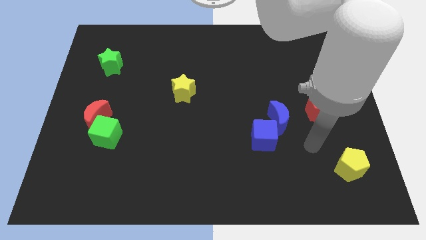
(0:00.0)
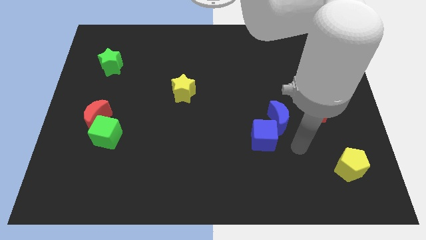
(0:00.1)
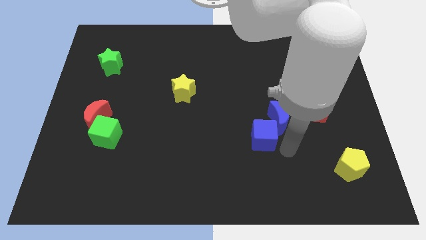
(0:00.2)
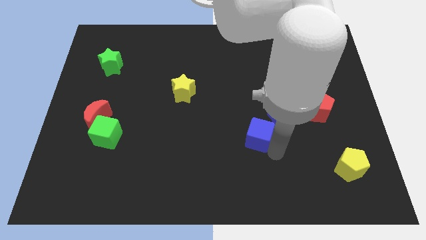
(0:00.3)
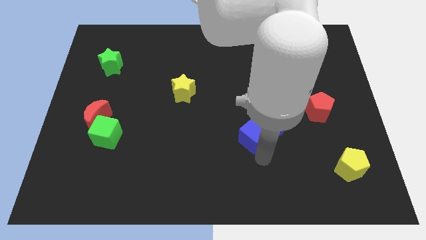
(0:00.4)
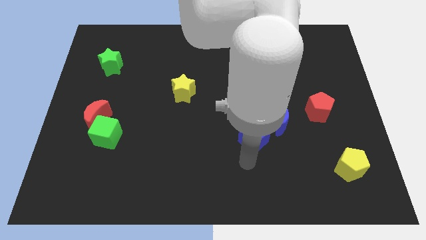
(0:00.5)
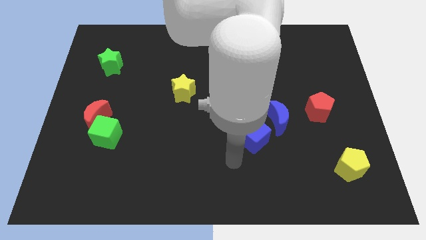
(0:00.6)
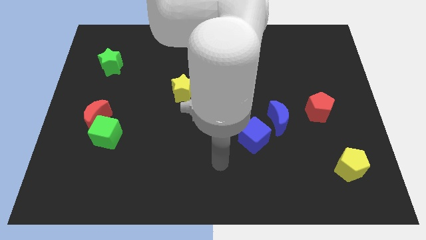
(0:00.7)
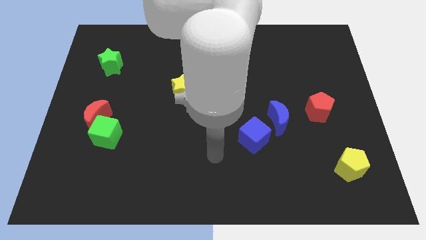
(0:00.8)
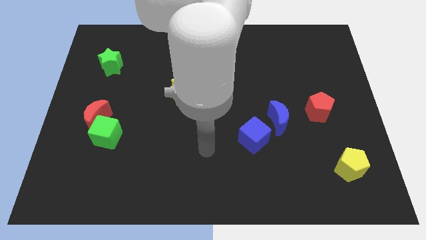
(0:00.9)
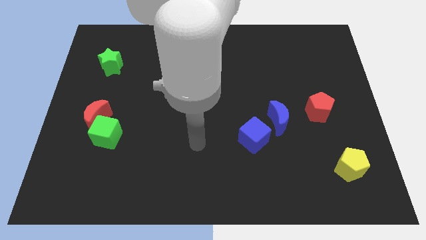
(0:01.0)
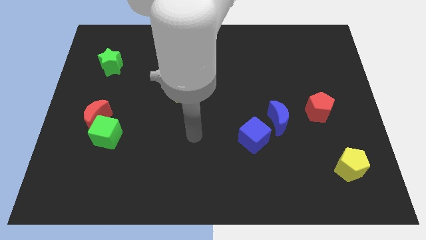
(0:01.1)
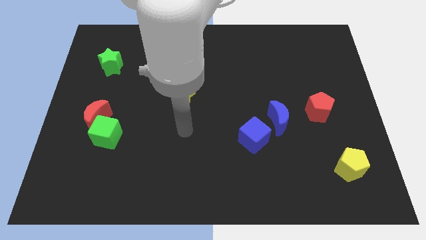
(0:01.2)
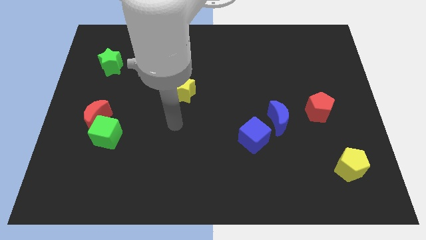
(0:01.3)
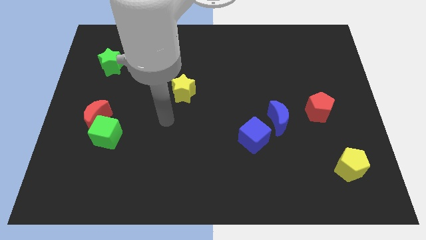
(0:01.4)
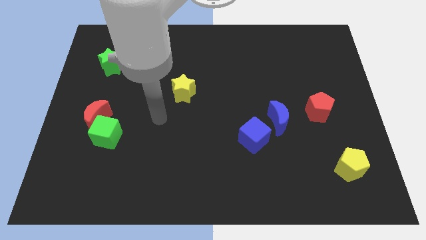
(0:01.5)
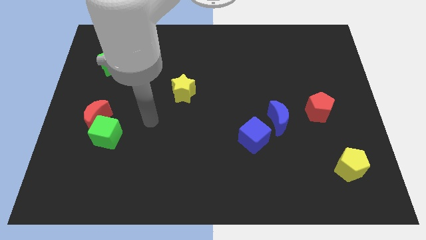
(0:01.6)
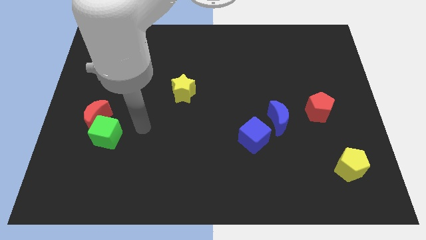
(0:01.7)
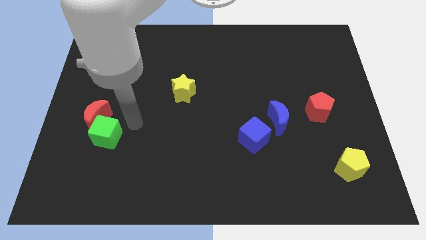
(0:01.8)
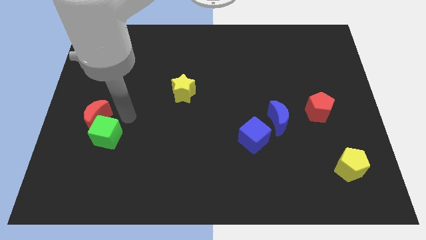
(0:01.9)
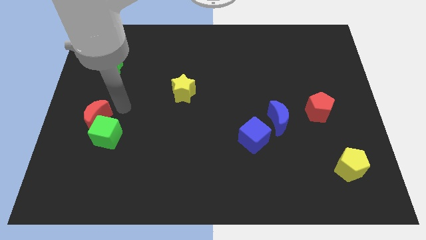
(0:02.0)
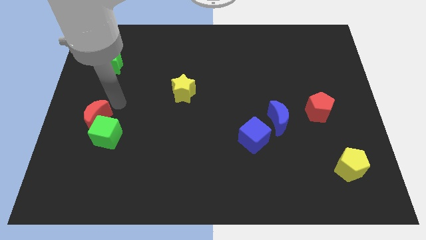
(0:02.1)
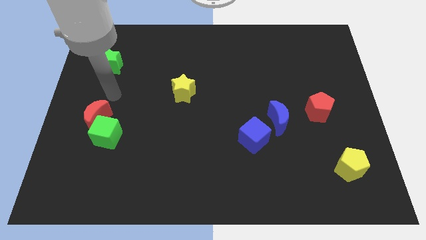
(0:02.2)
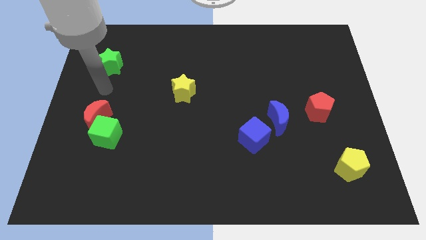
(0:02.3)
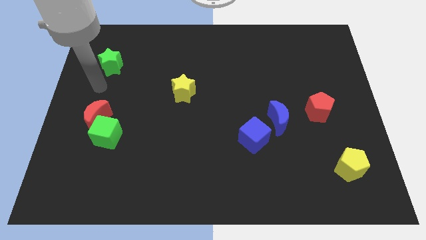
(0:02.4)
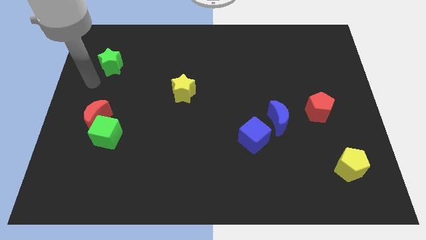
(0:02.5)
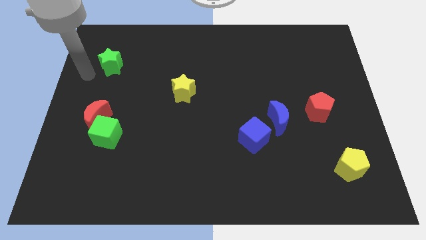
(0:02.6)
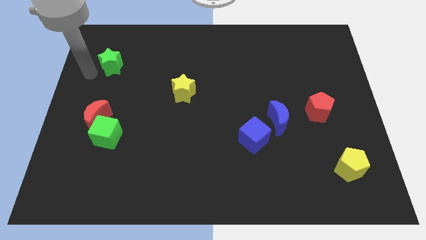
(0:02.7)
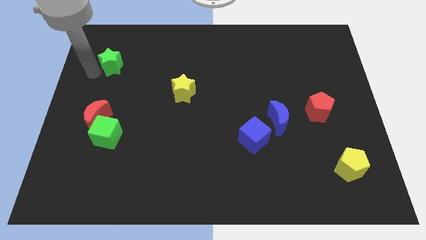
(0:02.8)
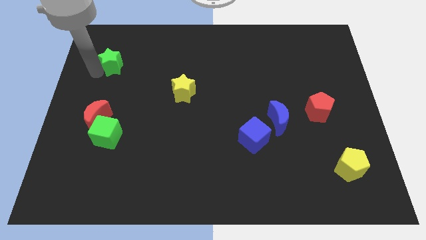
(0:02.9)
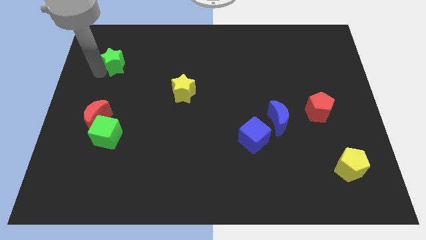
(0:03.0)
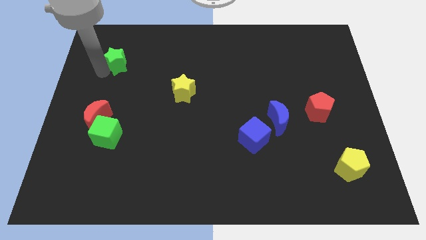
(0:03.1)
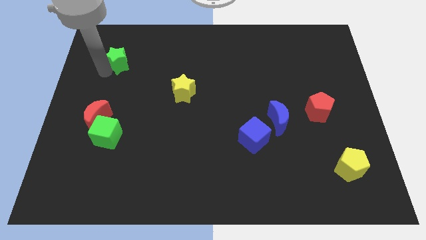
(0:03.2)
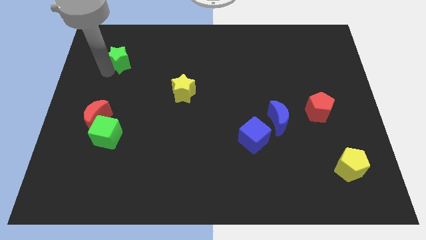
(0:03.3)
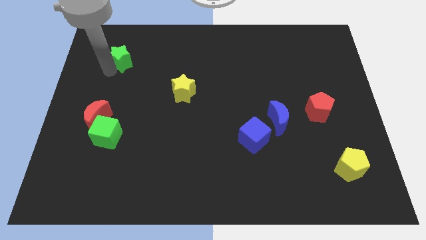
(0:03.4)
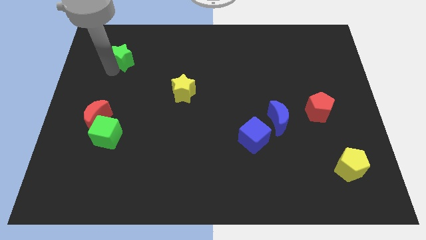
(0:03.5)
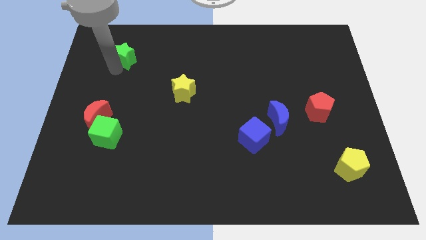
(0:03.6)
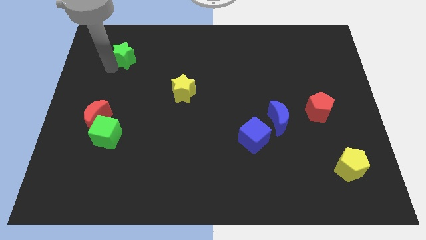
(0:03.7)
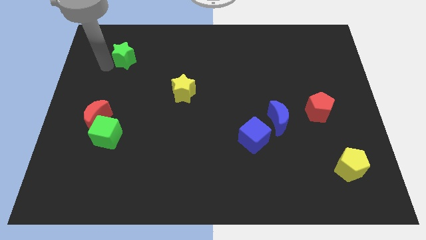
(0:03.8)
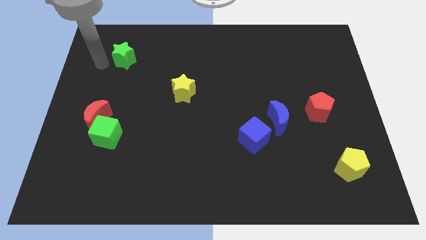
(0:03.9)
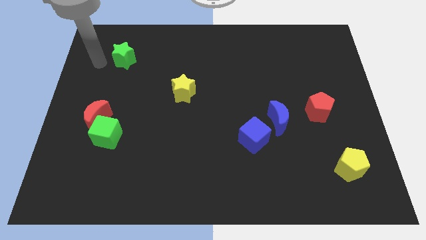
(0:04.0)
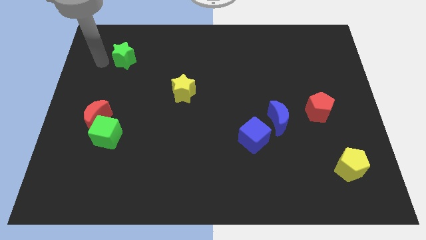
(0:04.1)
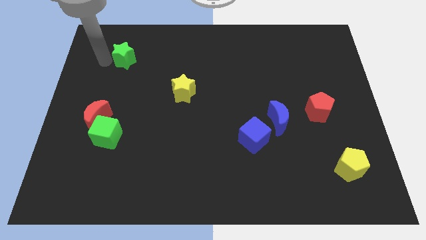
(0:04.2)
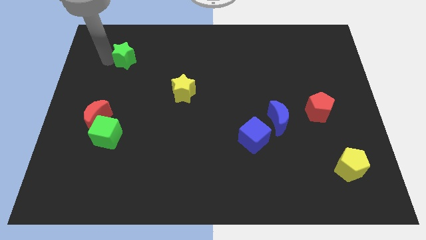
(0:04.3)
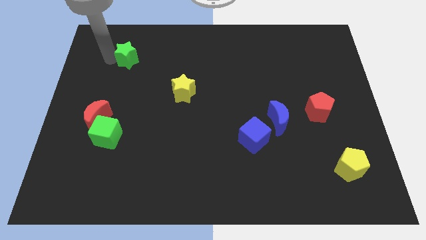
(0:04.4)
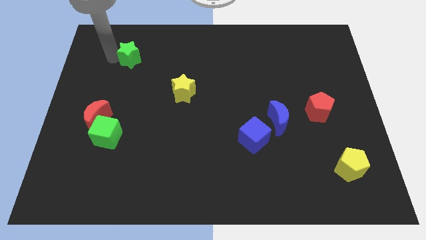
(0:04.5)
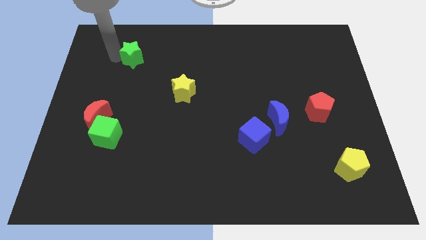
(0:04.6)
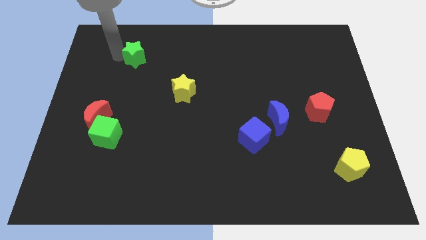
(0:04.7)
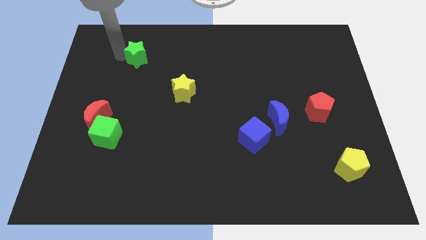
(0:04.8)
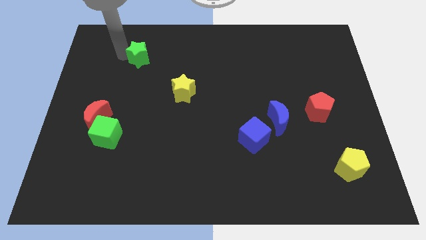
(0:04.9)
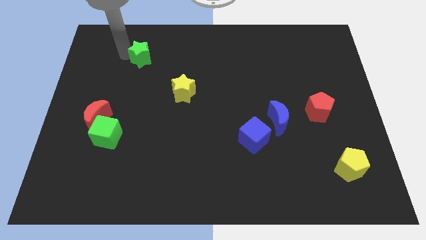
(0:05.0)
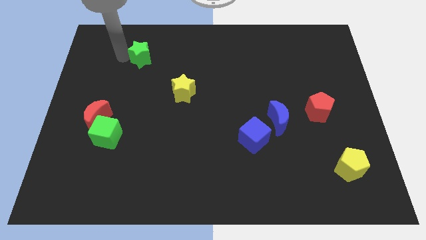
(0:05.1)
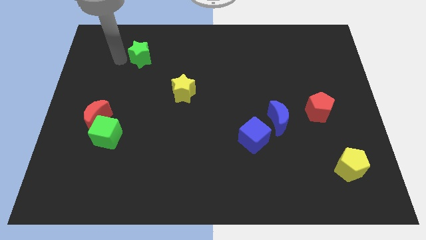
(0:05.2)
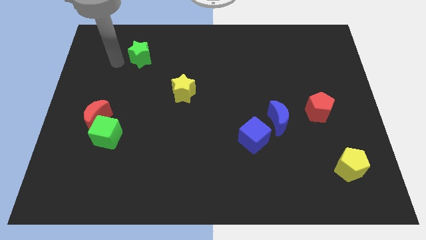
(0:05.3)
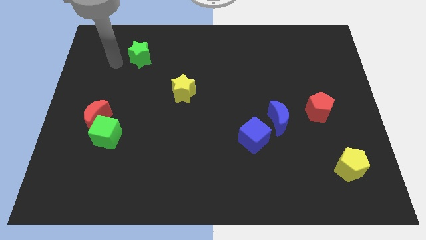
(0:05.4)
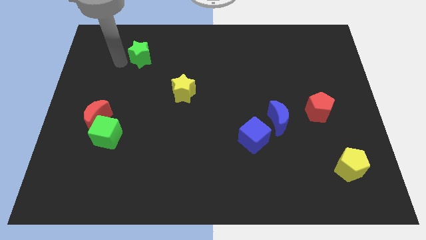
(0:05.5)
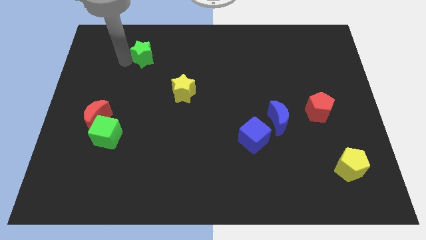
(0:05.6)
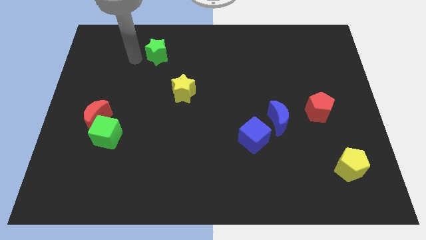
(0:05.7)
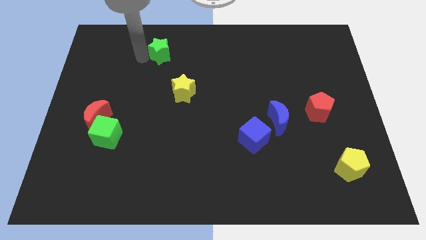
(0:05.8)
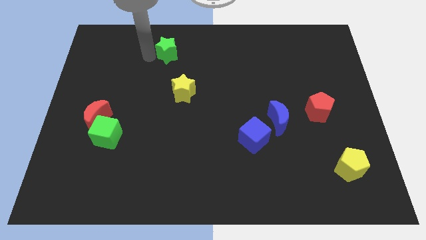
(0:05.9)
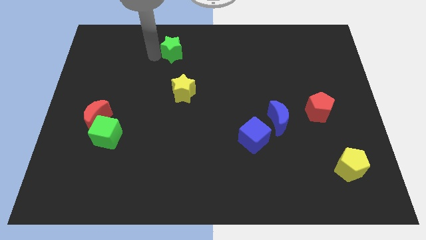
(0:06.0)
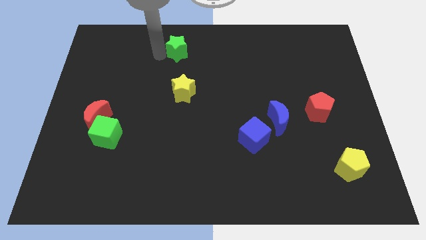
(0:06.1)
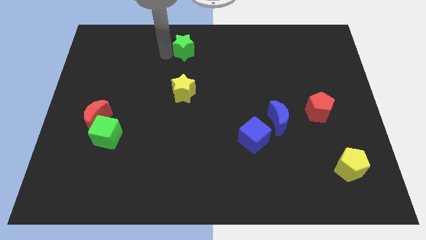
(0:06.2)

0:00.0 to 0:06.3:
slide the green star to the top side
